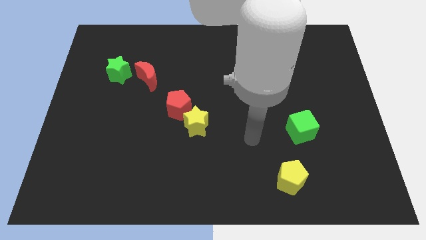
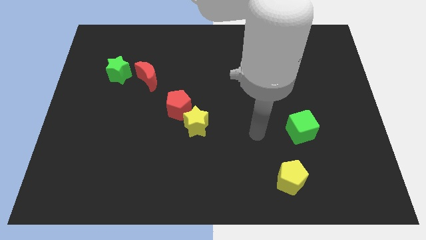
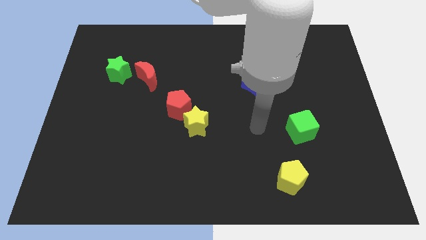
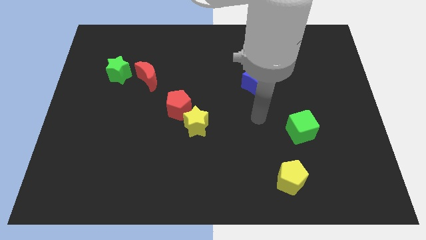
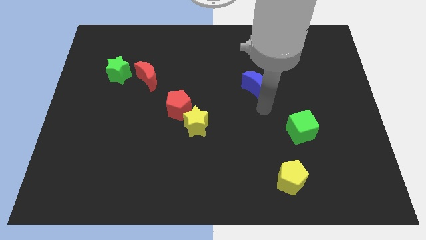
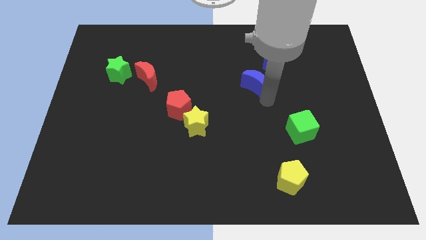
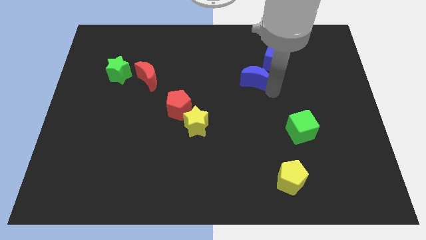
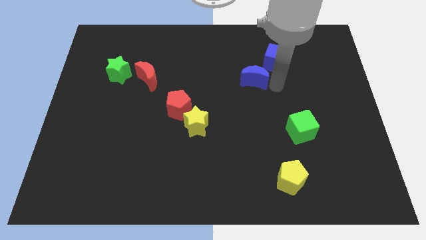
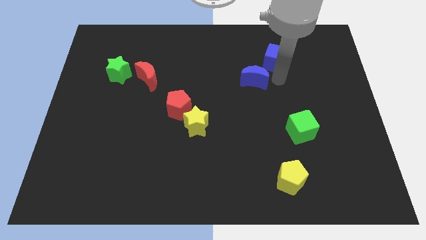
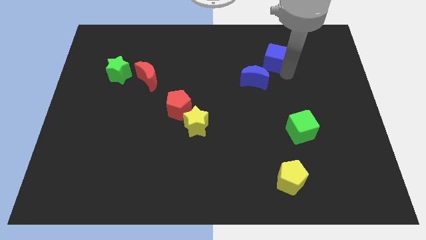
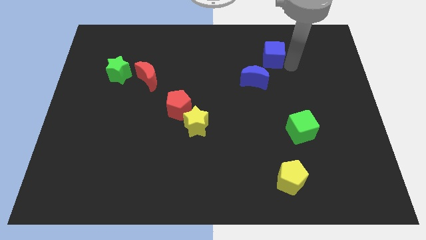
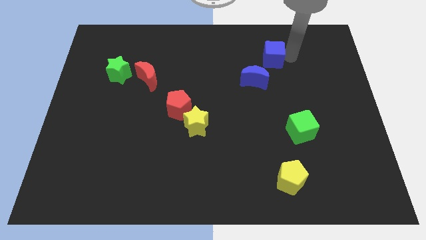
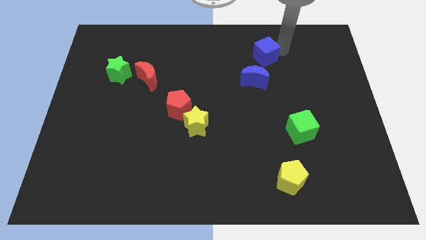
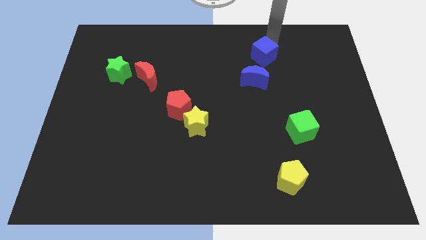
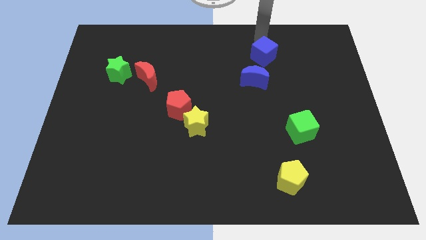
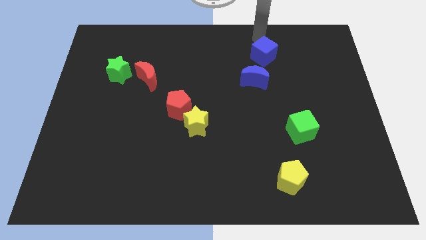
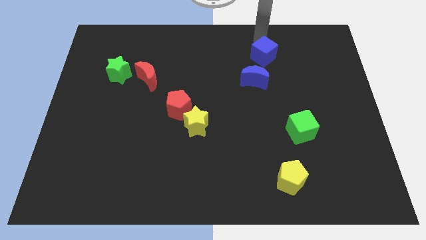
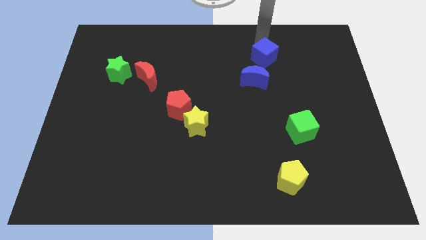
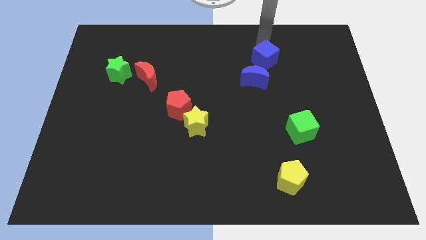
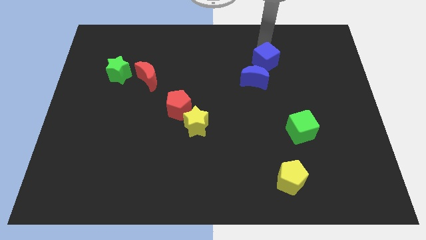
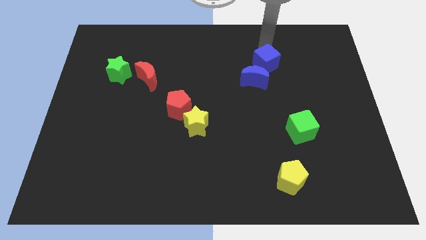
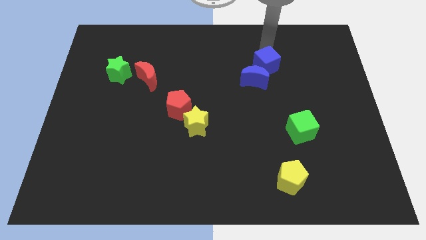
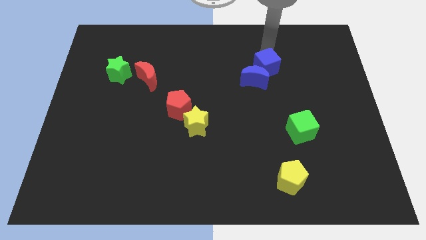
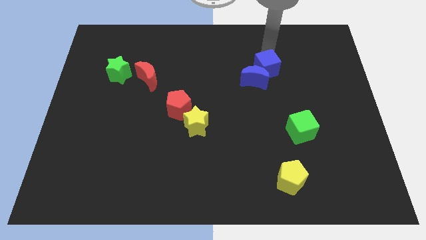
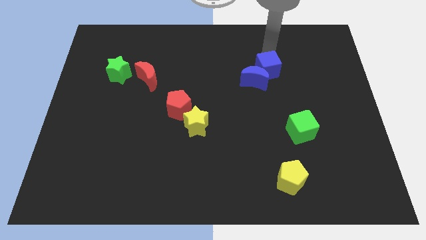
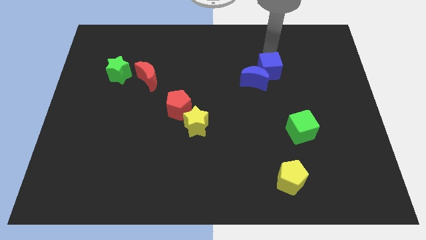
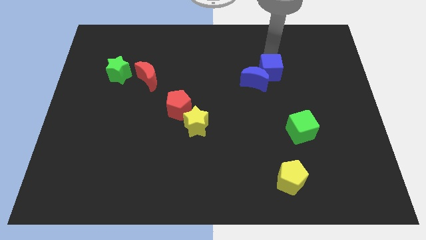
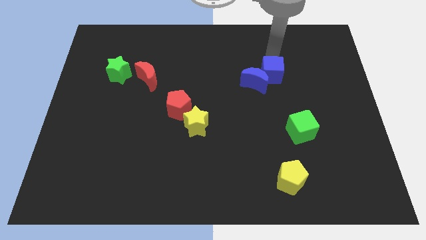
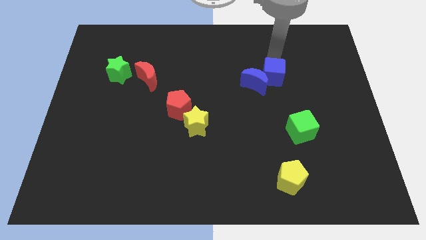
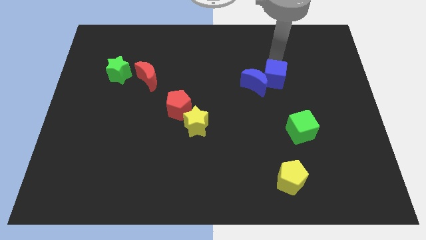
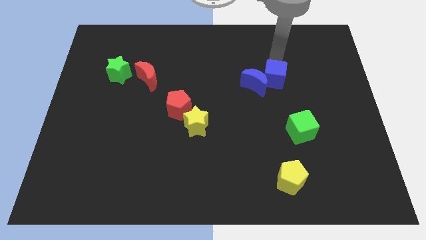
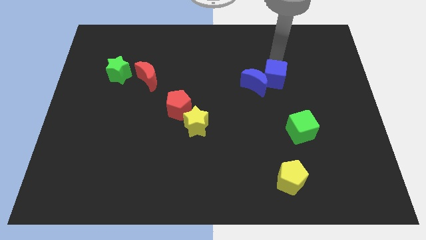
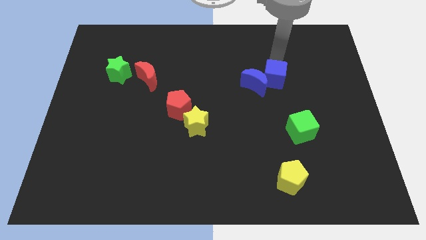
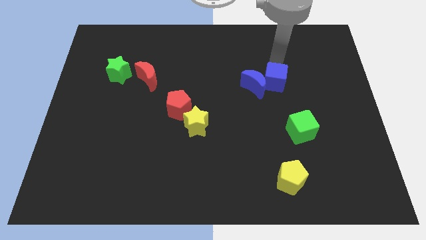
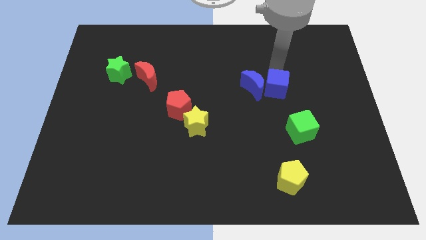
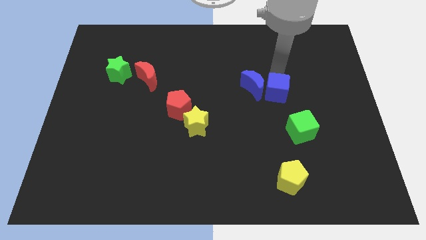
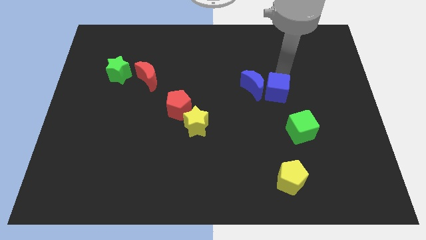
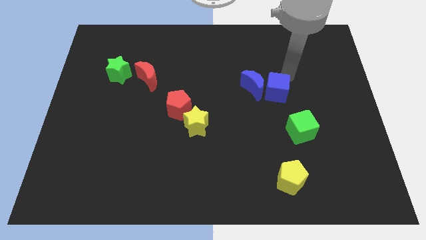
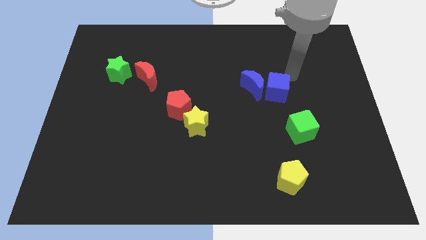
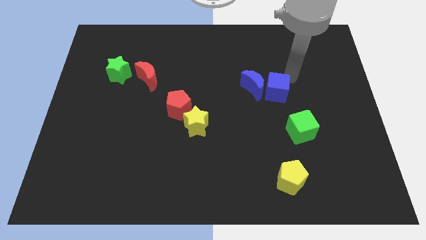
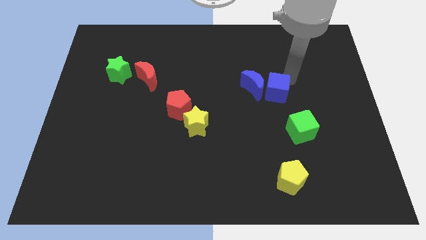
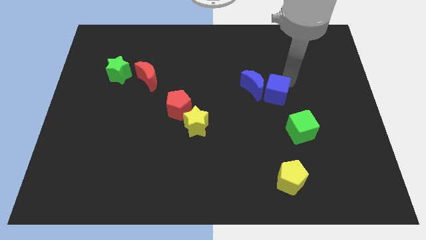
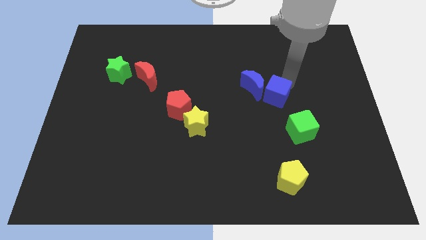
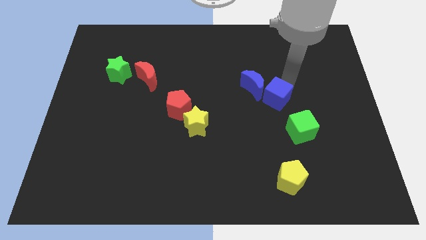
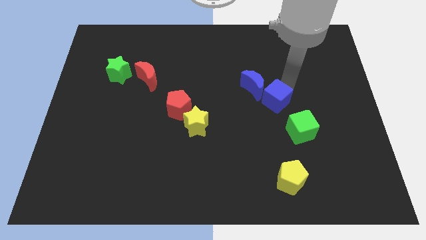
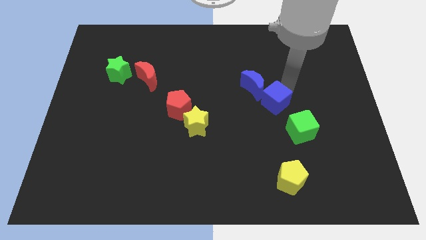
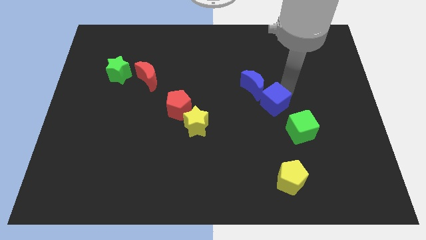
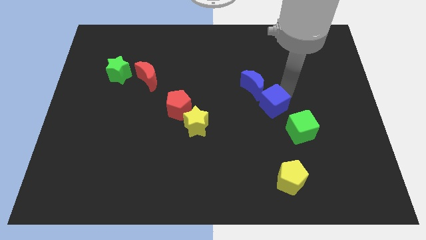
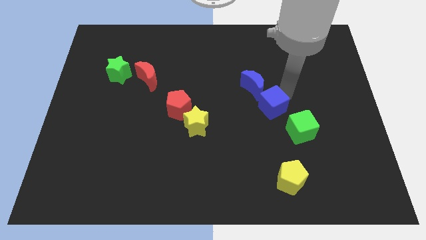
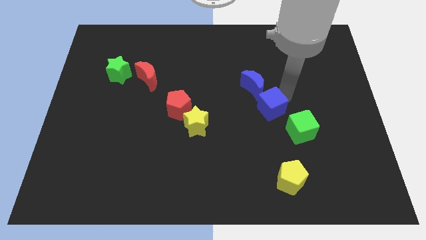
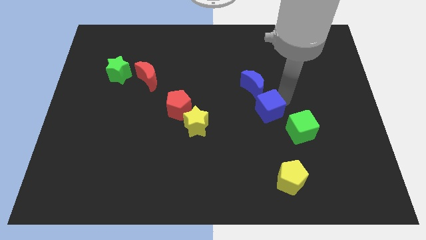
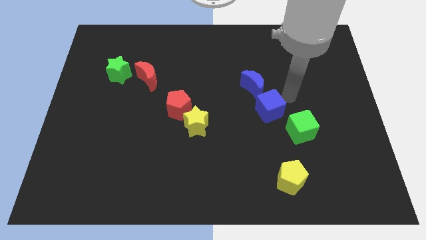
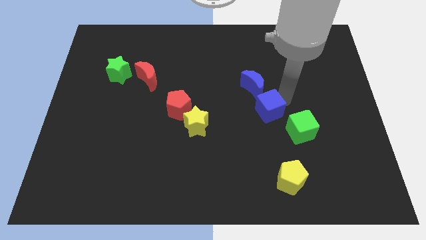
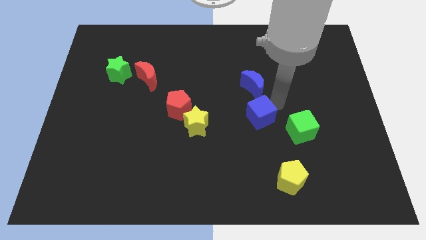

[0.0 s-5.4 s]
slide the blue cube just right of the yellow star

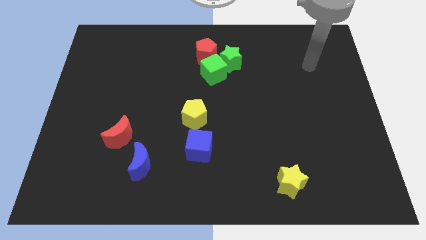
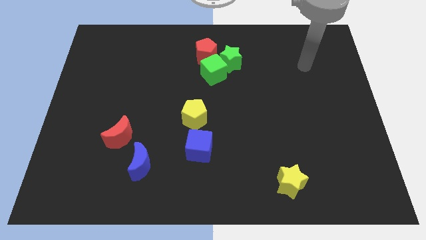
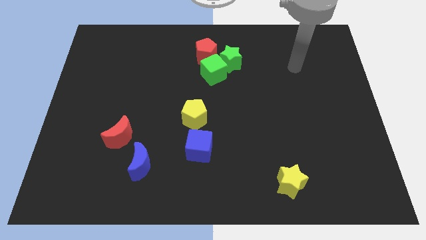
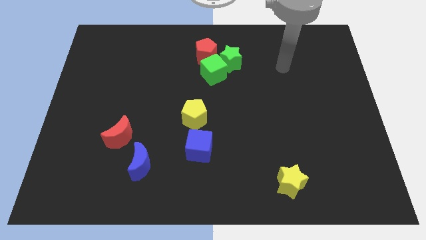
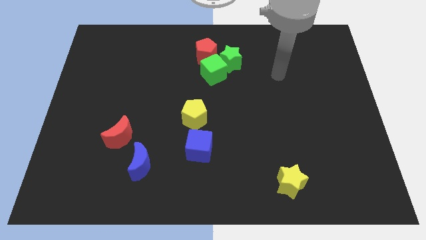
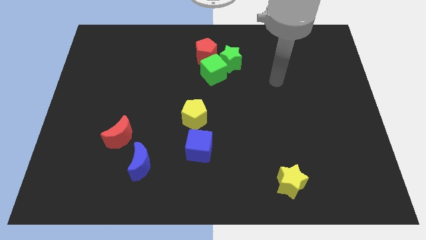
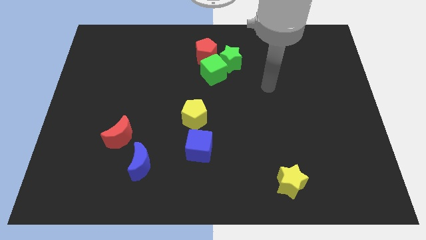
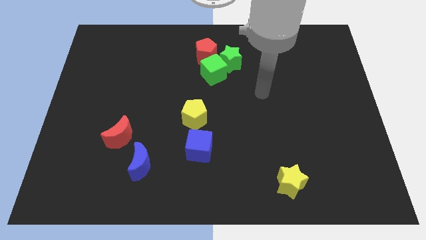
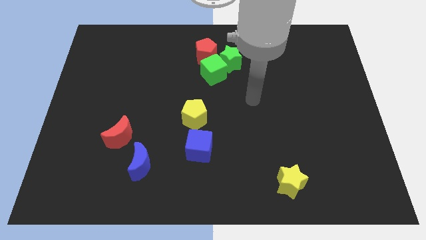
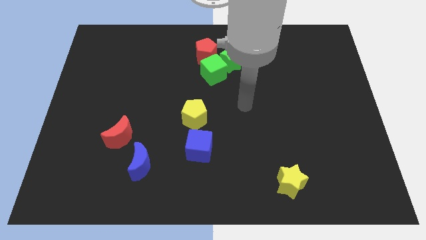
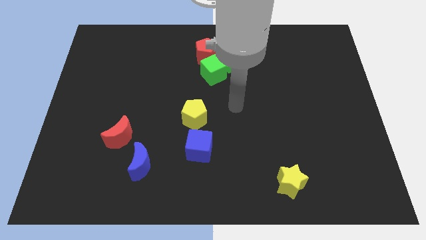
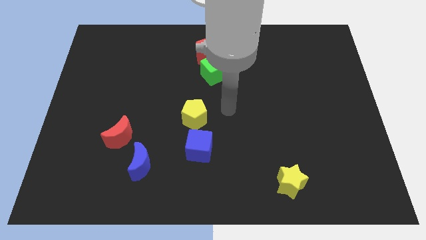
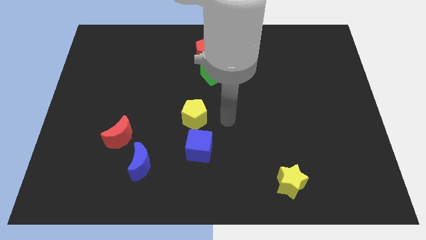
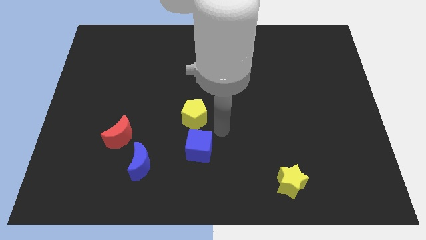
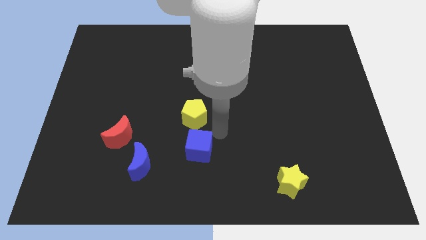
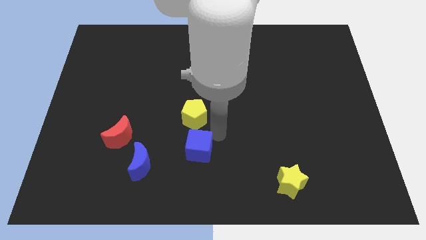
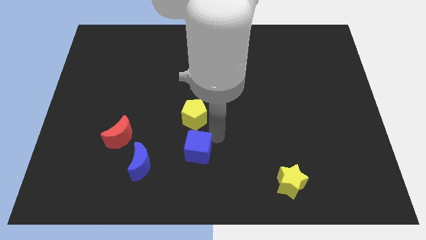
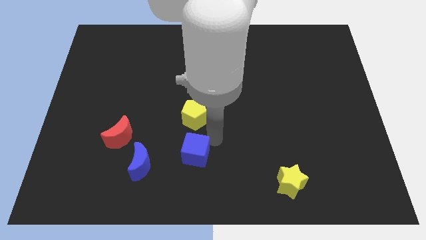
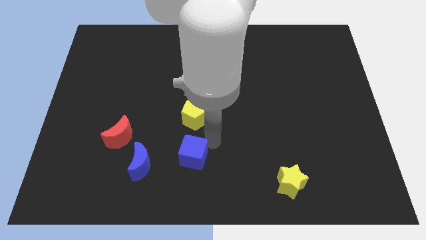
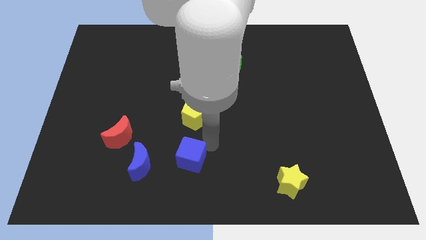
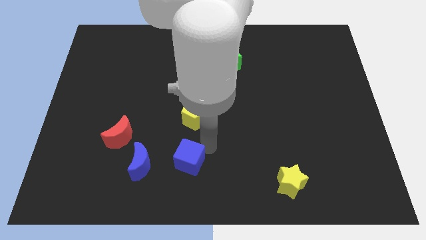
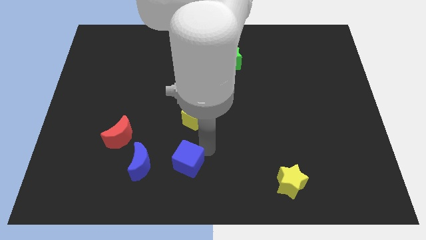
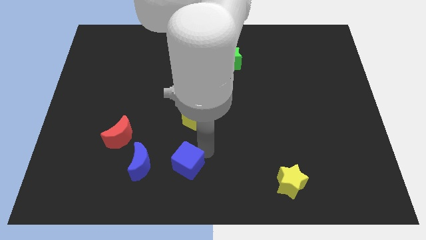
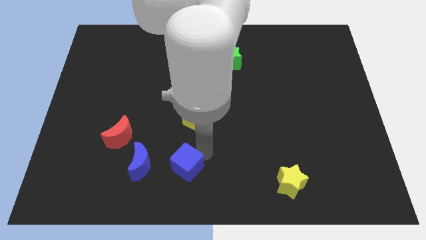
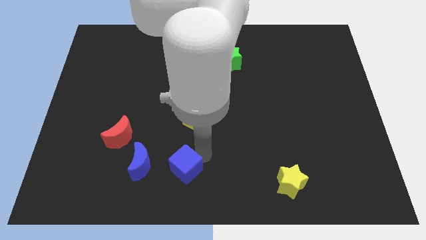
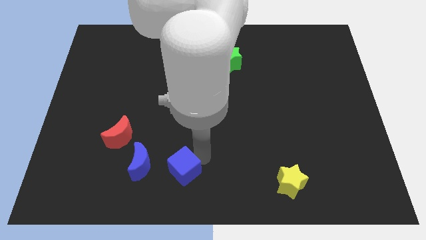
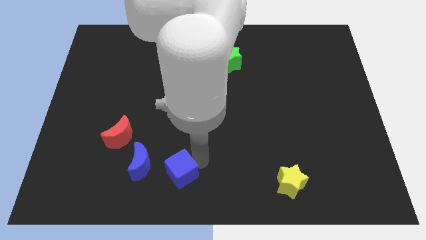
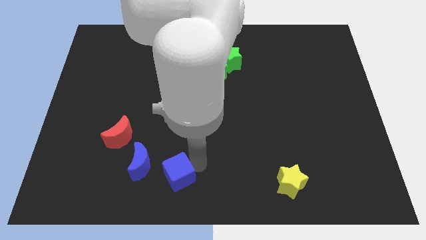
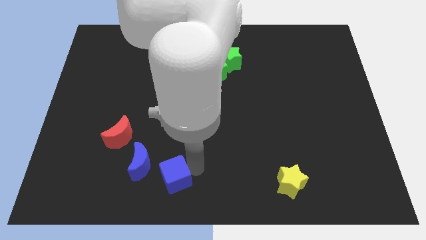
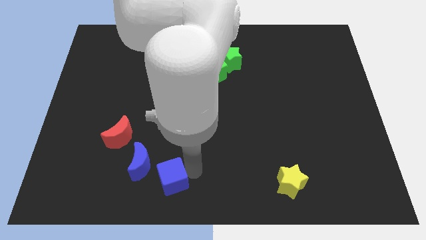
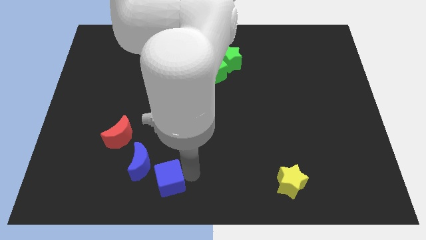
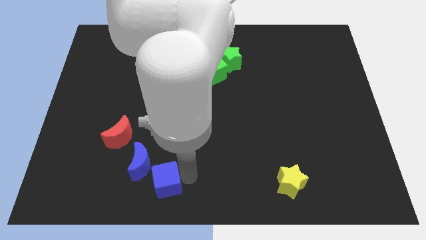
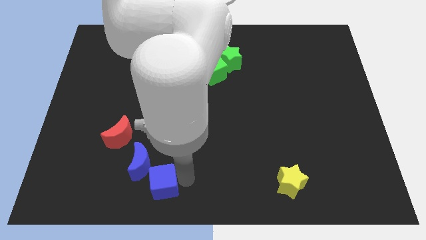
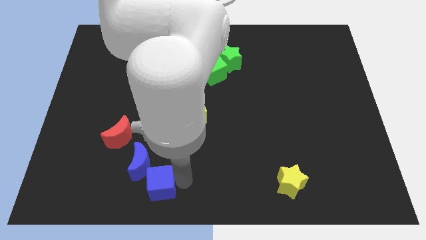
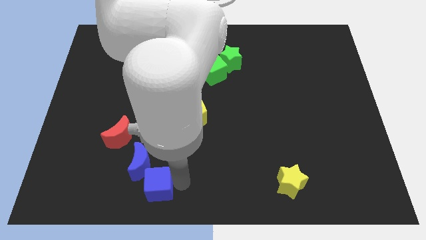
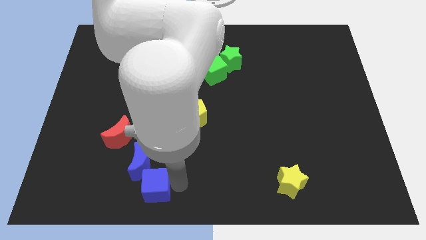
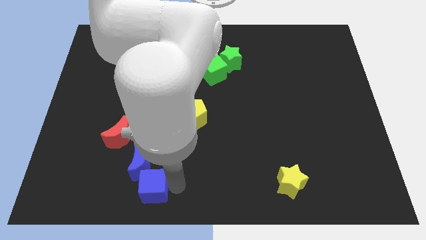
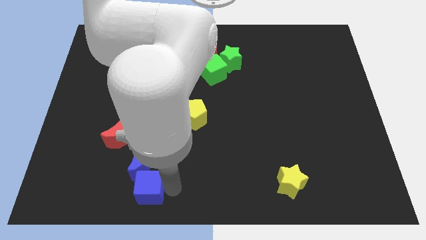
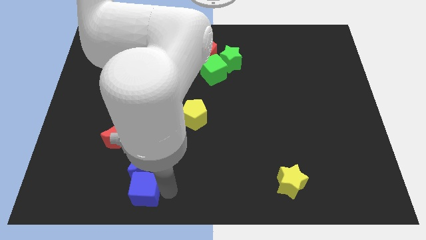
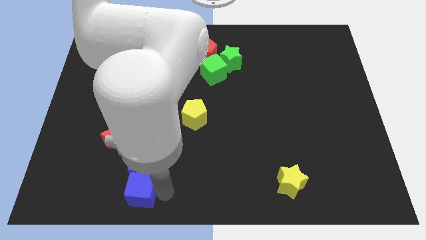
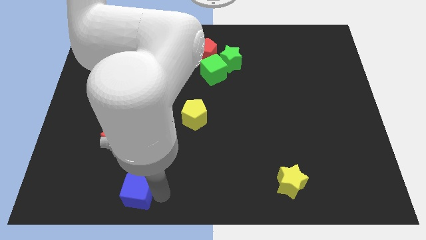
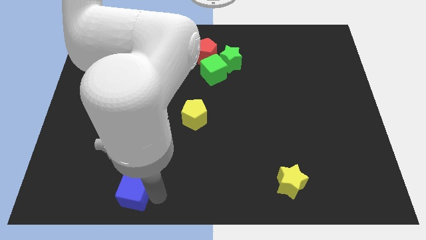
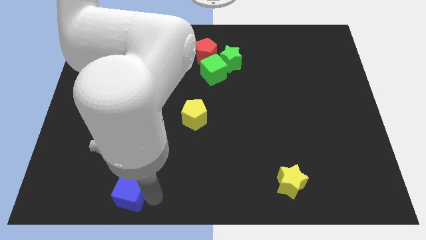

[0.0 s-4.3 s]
slide the blue cube to the bottom of the red moon
